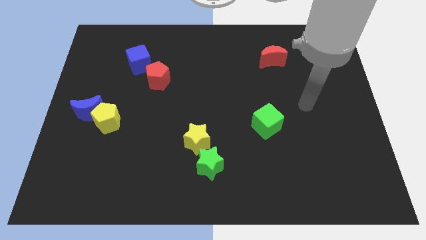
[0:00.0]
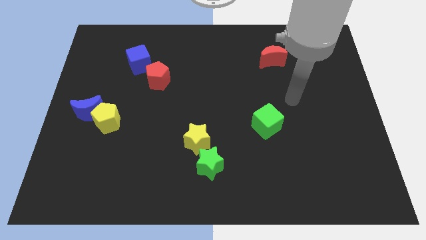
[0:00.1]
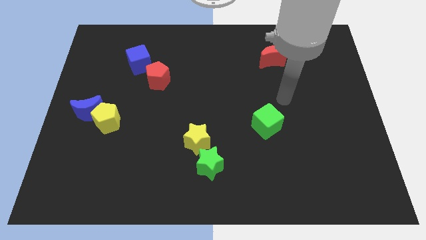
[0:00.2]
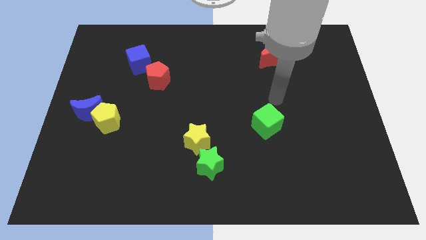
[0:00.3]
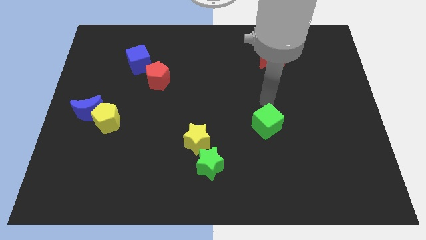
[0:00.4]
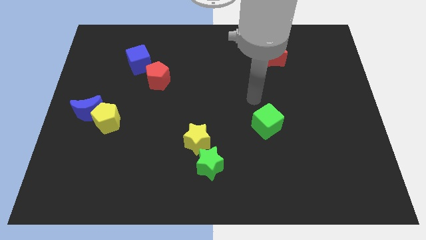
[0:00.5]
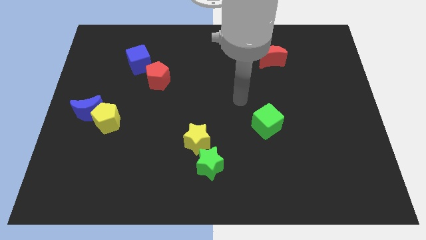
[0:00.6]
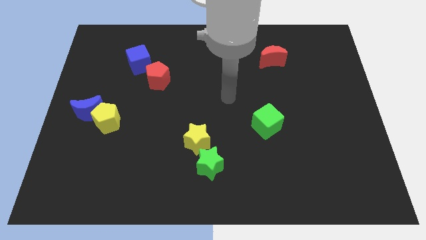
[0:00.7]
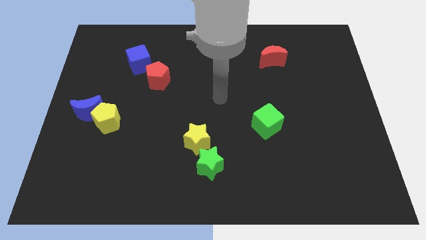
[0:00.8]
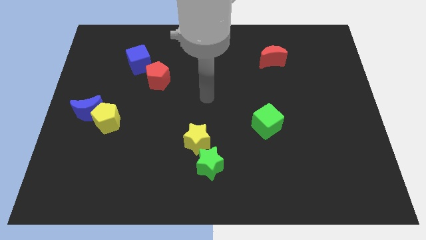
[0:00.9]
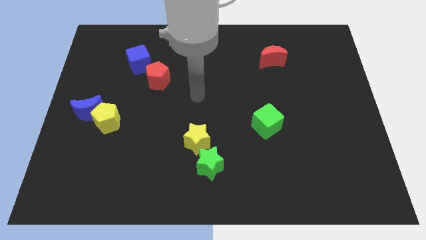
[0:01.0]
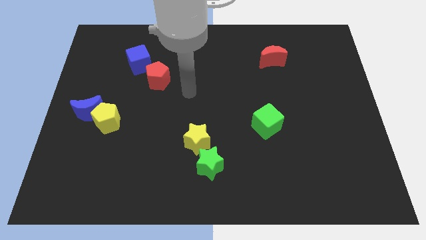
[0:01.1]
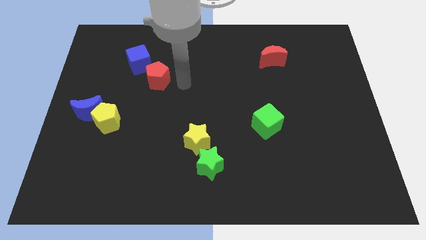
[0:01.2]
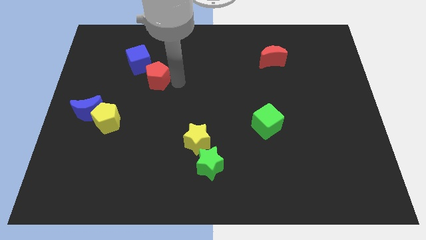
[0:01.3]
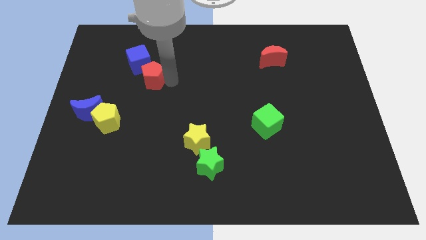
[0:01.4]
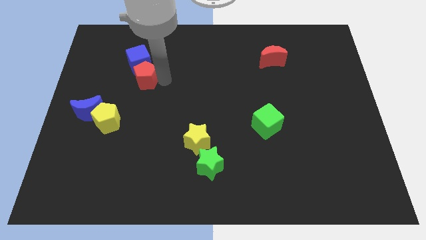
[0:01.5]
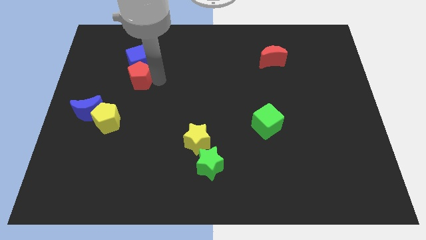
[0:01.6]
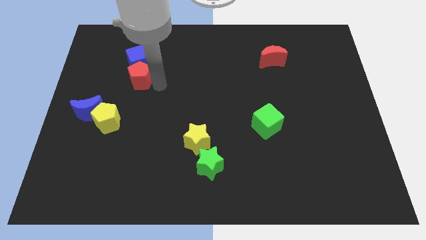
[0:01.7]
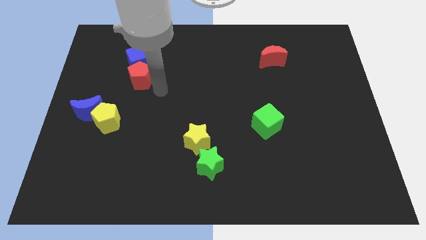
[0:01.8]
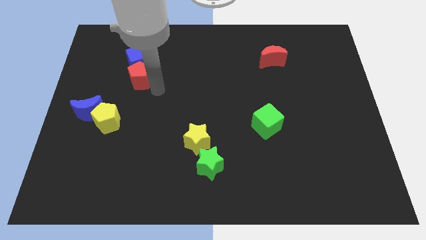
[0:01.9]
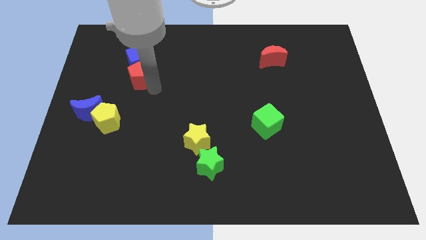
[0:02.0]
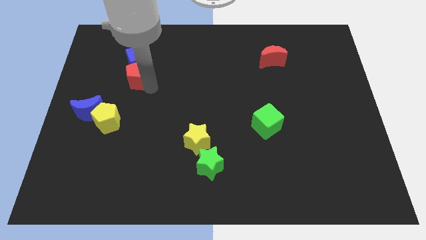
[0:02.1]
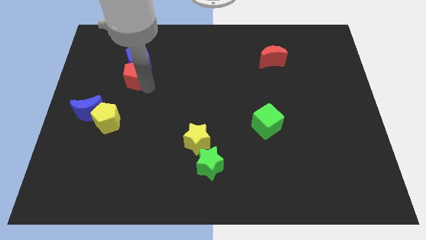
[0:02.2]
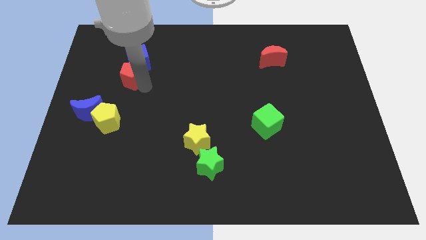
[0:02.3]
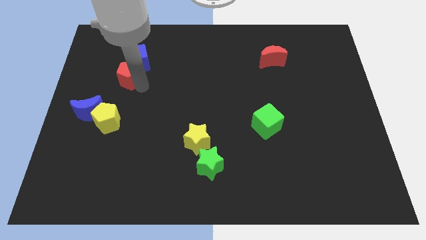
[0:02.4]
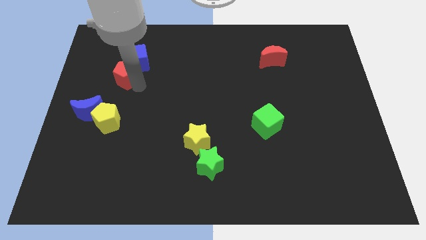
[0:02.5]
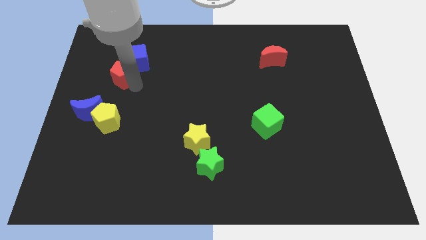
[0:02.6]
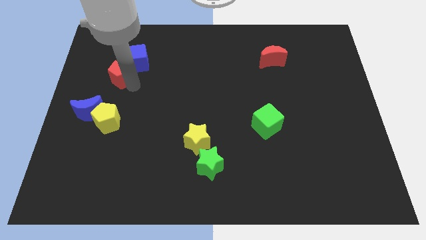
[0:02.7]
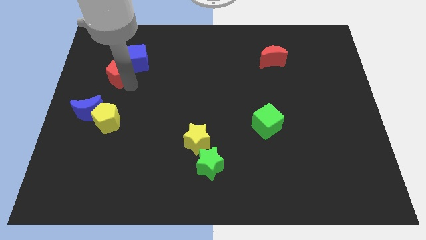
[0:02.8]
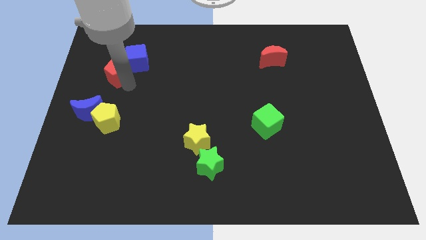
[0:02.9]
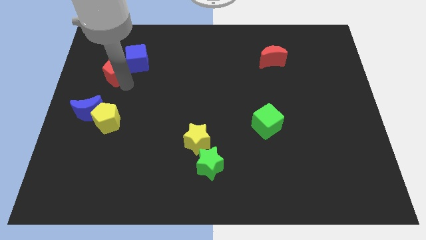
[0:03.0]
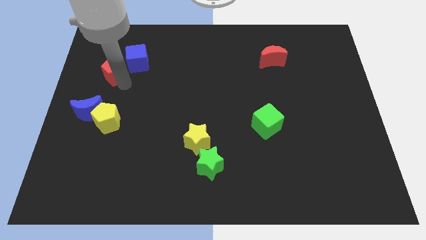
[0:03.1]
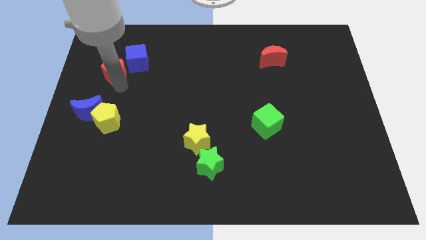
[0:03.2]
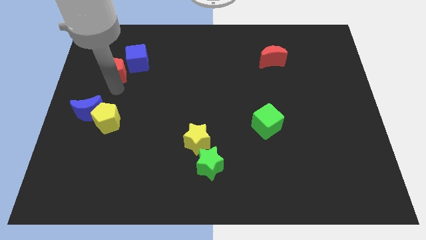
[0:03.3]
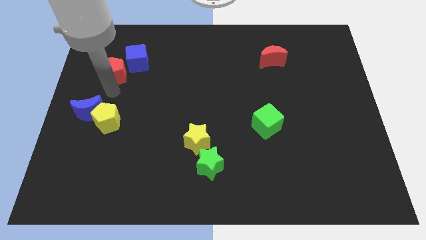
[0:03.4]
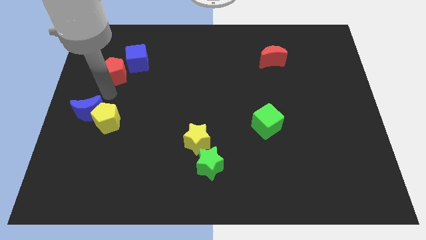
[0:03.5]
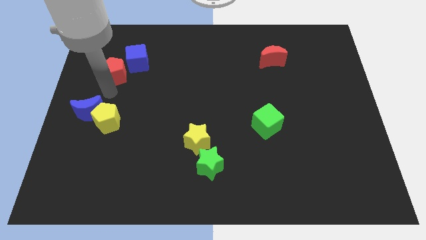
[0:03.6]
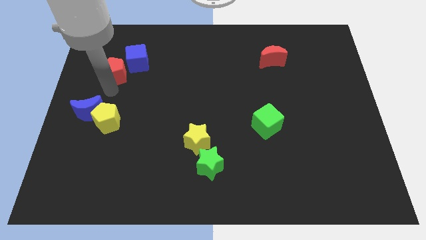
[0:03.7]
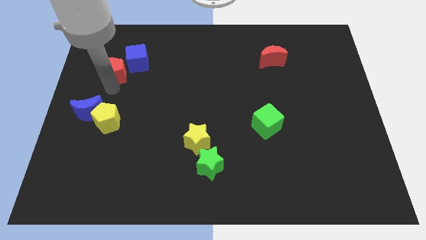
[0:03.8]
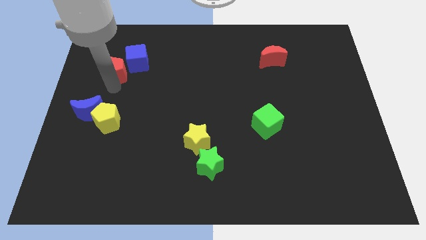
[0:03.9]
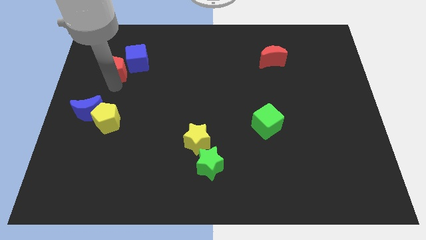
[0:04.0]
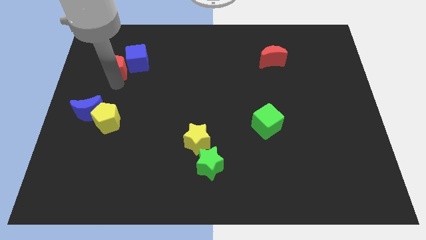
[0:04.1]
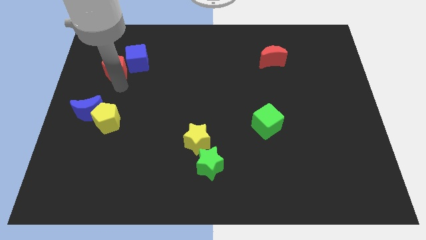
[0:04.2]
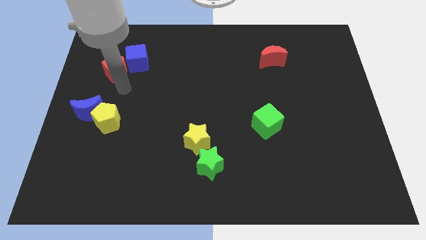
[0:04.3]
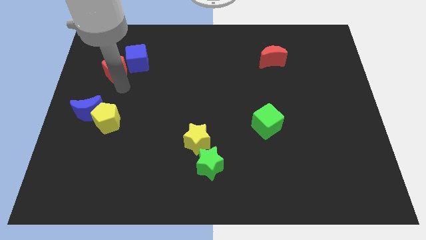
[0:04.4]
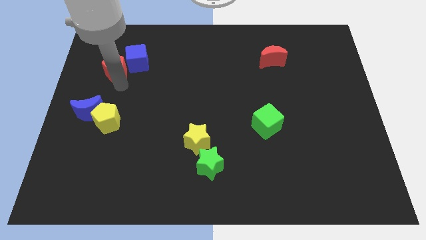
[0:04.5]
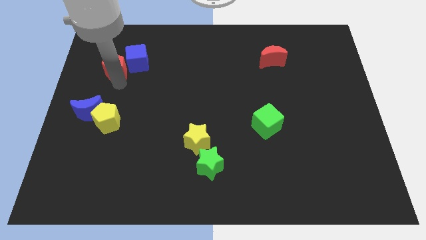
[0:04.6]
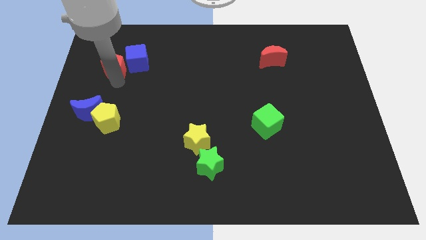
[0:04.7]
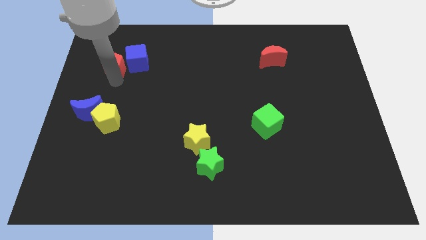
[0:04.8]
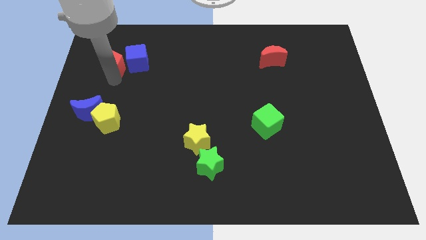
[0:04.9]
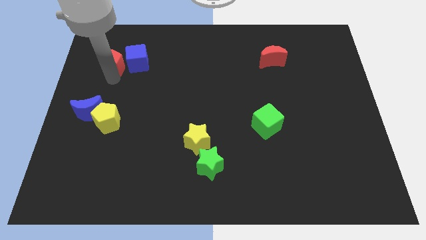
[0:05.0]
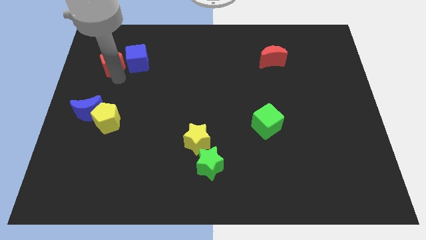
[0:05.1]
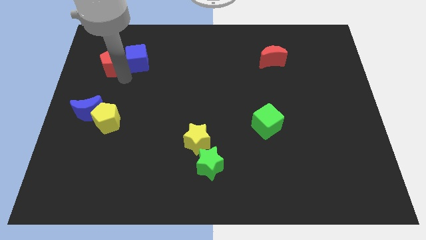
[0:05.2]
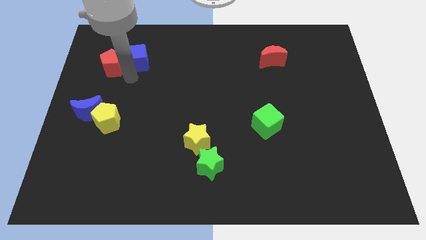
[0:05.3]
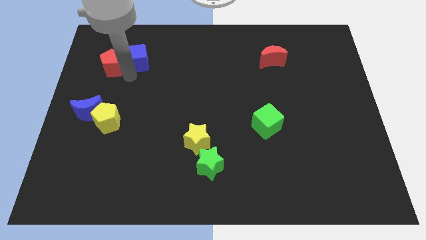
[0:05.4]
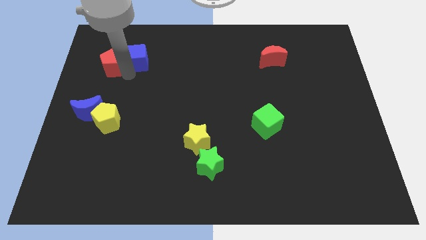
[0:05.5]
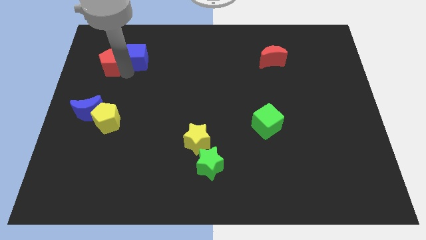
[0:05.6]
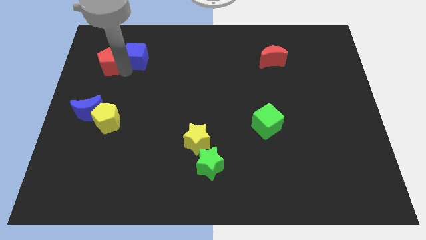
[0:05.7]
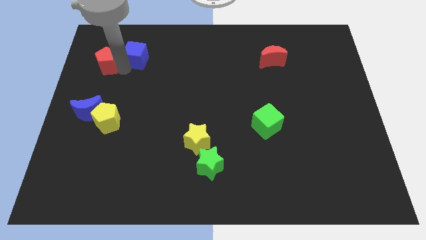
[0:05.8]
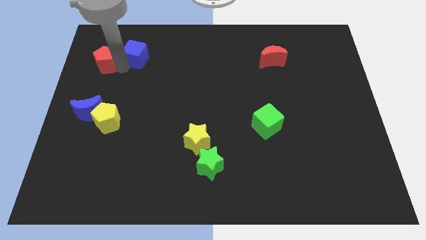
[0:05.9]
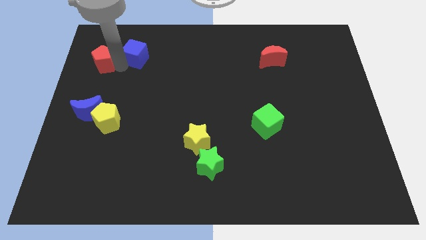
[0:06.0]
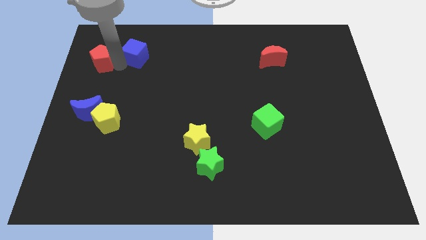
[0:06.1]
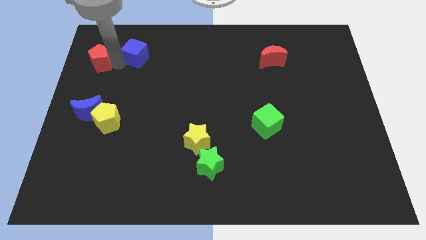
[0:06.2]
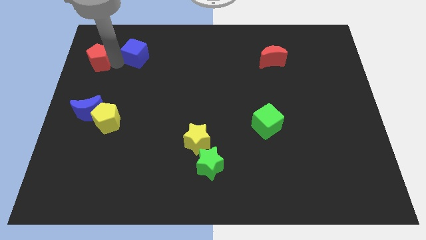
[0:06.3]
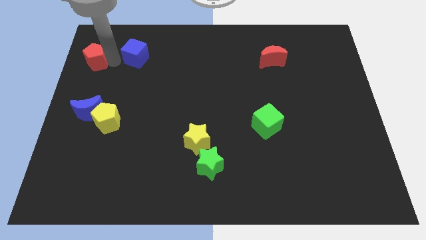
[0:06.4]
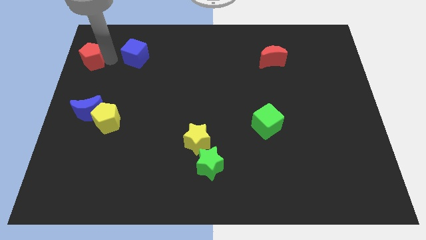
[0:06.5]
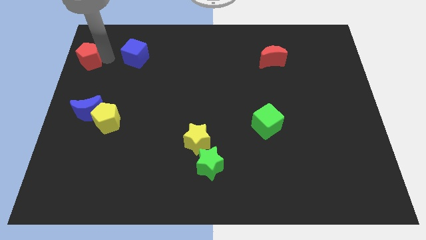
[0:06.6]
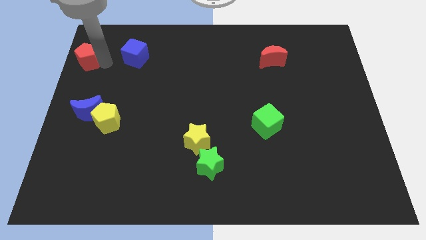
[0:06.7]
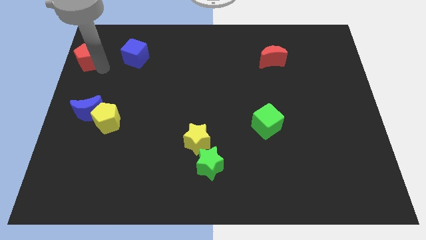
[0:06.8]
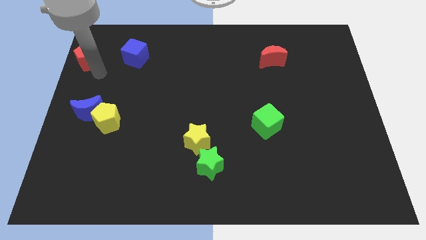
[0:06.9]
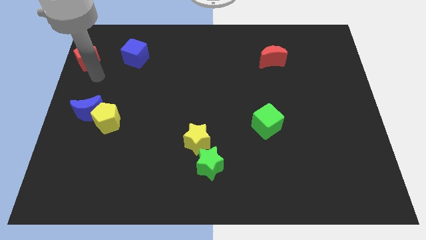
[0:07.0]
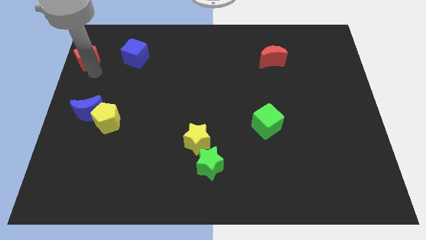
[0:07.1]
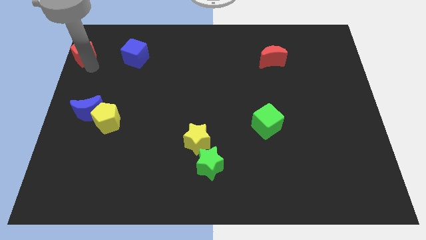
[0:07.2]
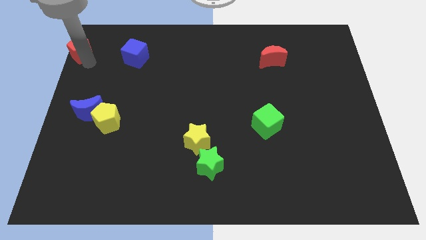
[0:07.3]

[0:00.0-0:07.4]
move the red pentagon to the upper left corner
